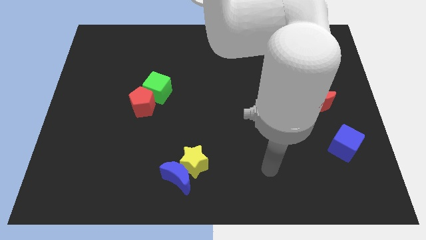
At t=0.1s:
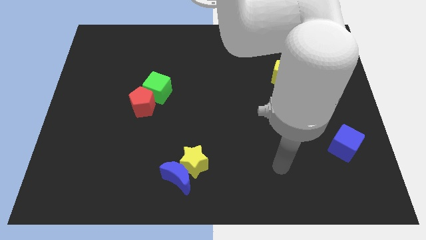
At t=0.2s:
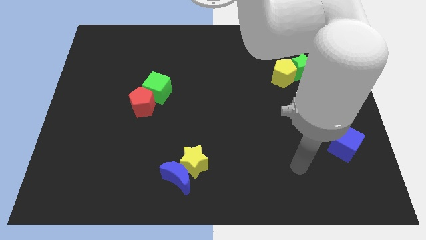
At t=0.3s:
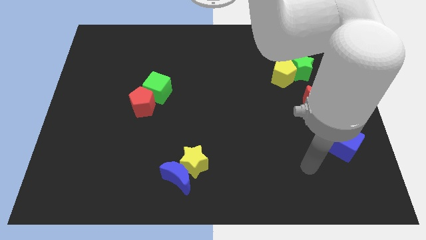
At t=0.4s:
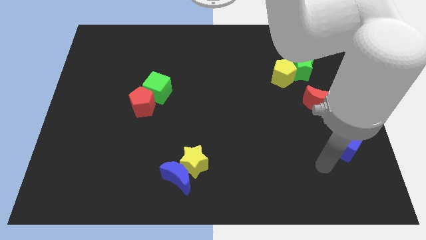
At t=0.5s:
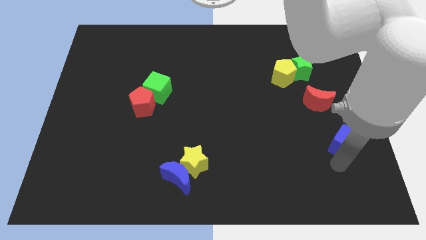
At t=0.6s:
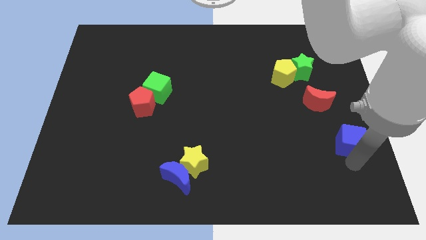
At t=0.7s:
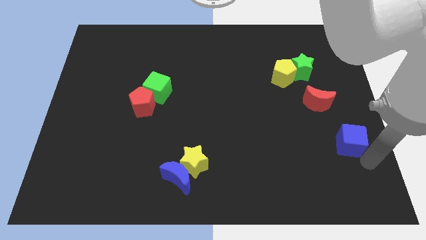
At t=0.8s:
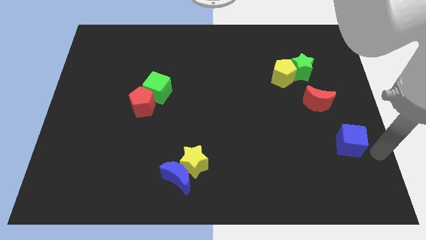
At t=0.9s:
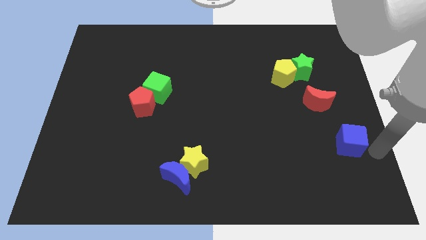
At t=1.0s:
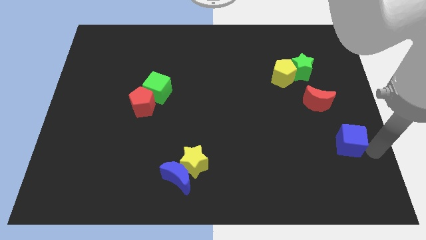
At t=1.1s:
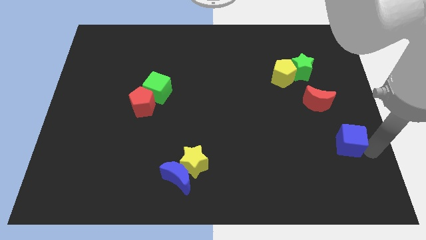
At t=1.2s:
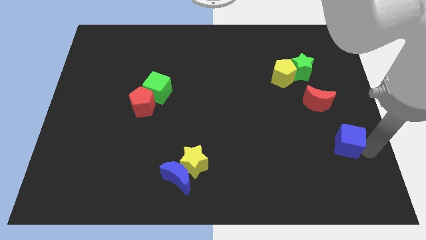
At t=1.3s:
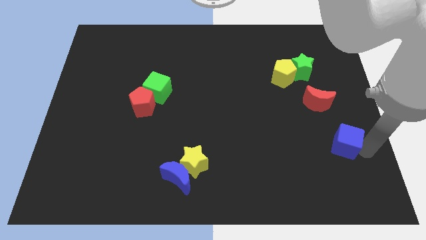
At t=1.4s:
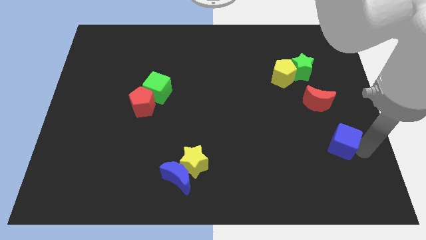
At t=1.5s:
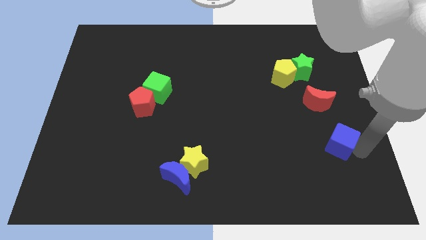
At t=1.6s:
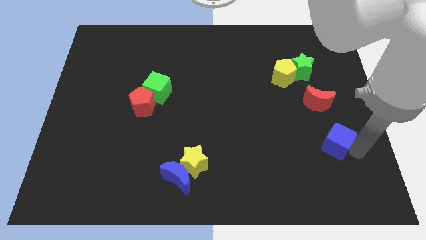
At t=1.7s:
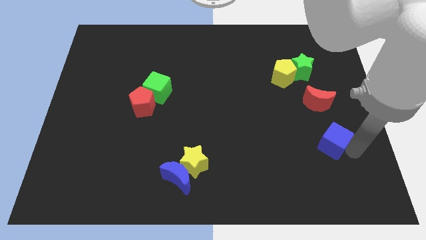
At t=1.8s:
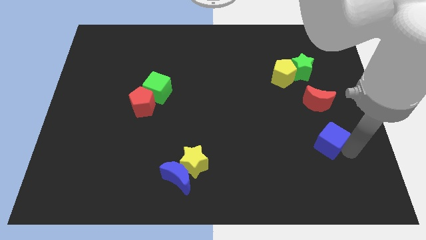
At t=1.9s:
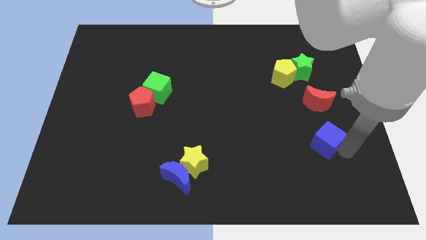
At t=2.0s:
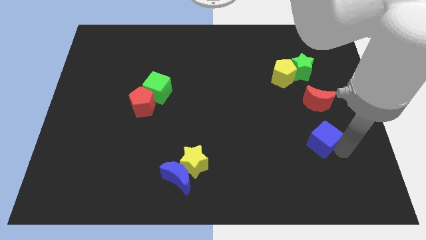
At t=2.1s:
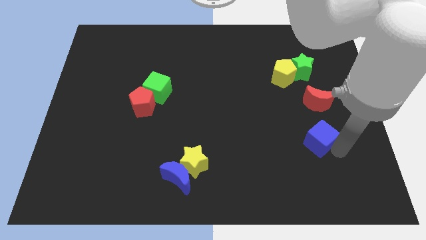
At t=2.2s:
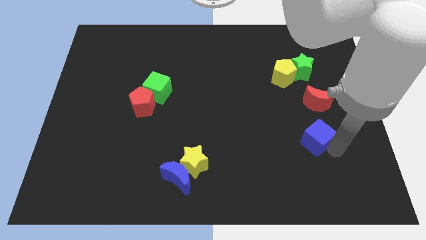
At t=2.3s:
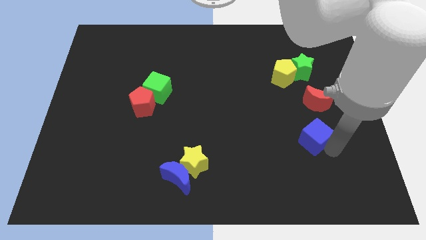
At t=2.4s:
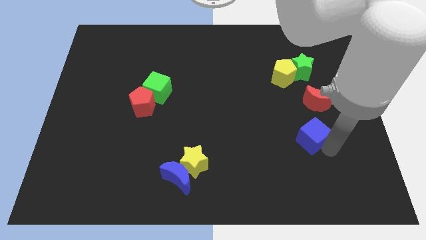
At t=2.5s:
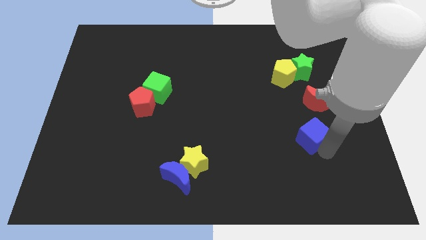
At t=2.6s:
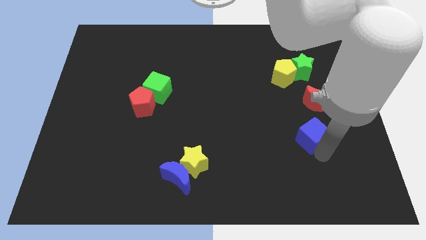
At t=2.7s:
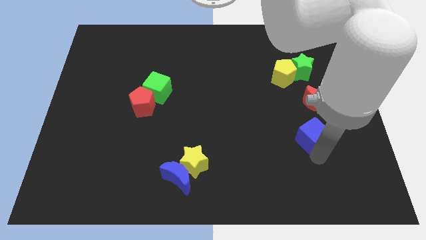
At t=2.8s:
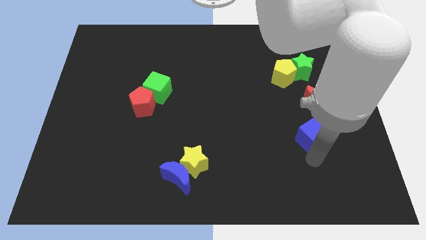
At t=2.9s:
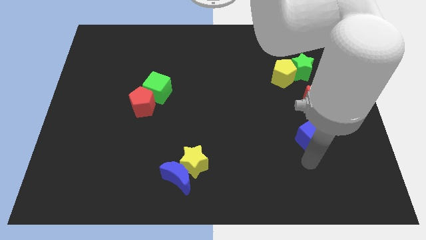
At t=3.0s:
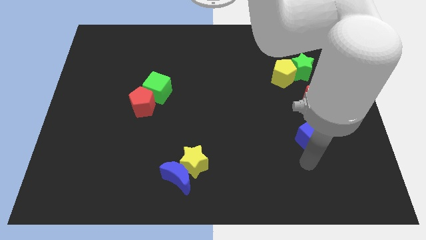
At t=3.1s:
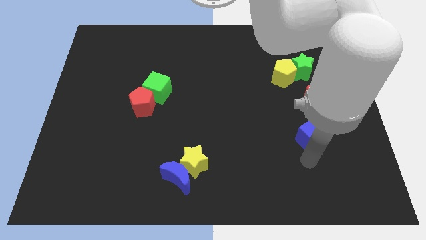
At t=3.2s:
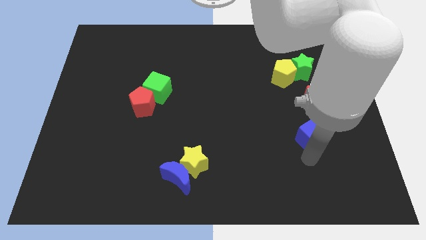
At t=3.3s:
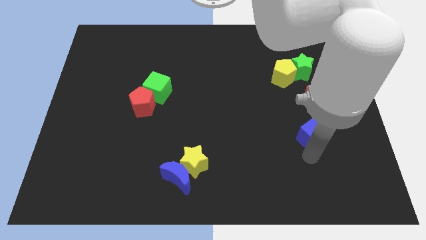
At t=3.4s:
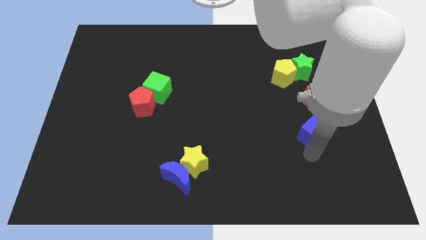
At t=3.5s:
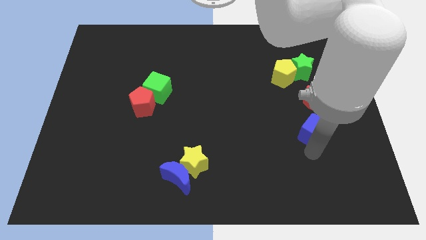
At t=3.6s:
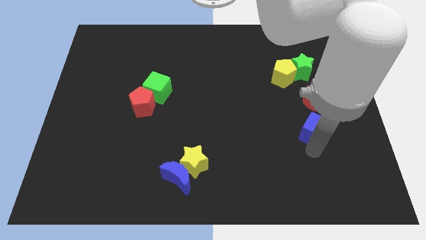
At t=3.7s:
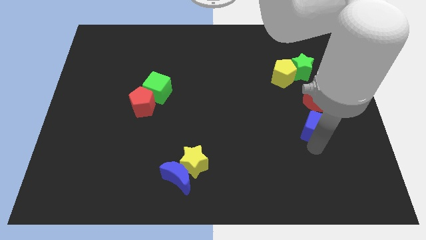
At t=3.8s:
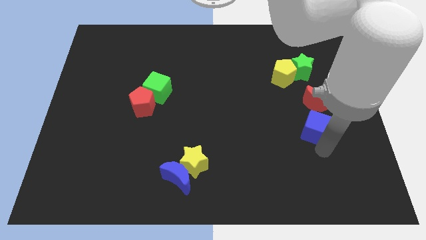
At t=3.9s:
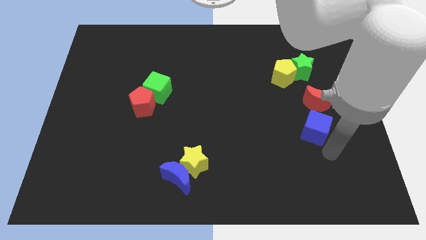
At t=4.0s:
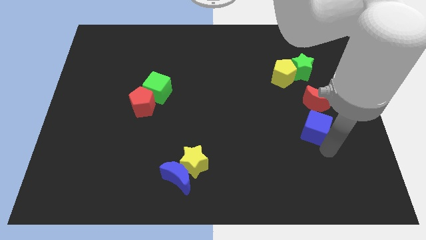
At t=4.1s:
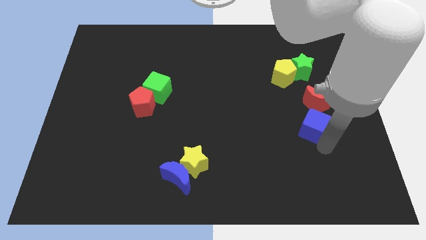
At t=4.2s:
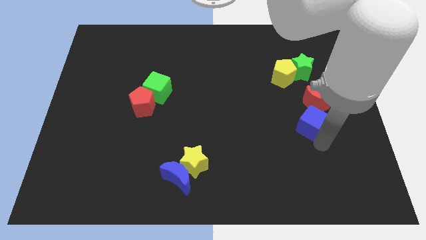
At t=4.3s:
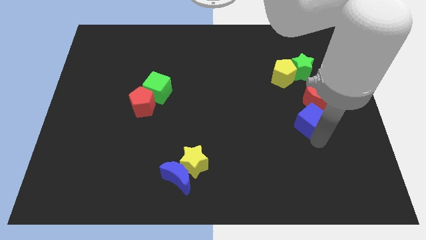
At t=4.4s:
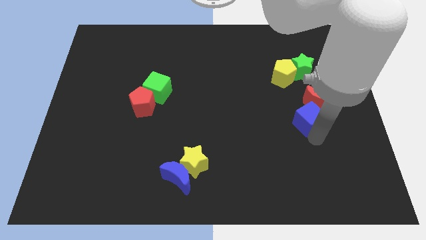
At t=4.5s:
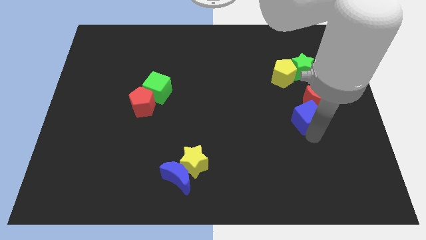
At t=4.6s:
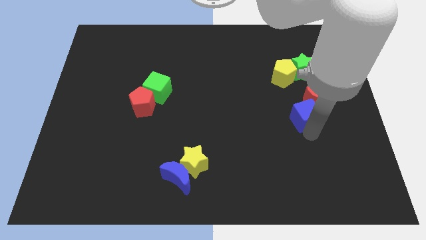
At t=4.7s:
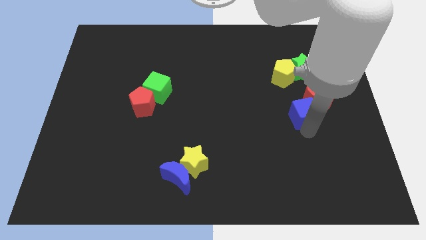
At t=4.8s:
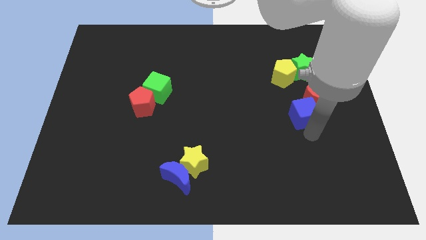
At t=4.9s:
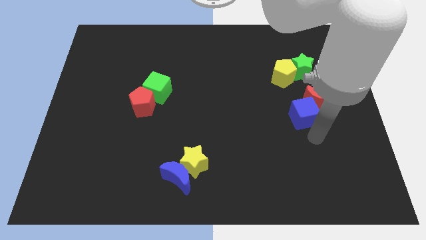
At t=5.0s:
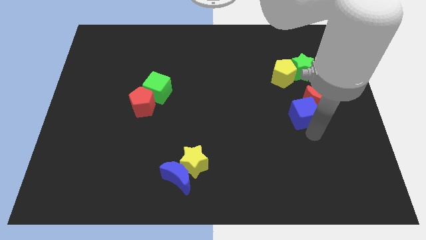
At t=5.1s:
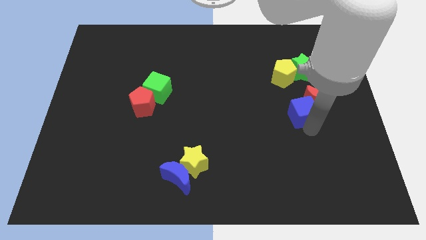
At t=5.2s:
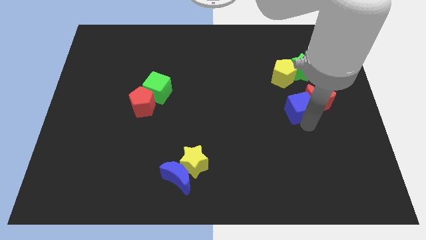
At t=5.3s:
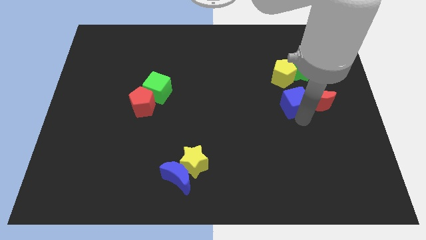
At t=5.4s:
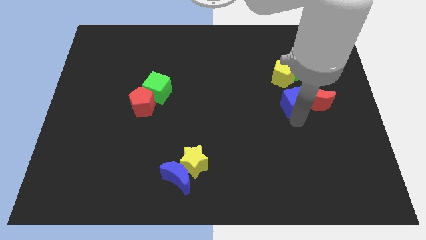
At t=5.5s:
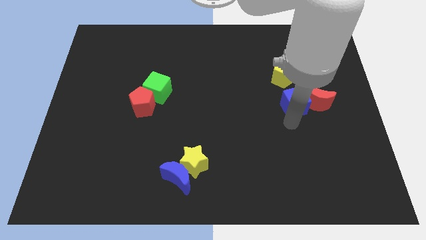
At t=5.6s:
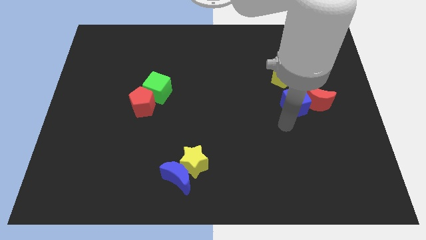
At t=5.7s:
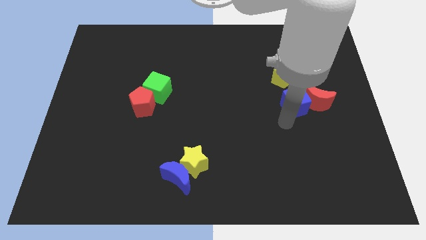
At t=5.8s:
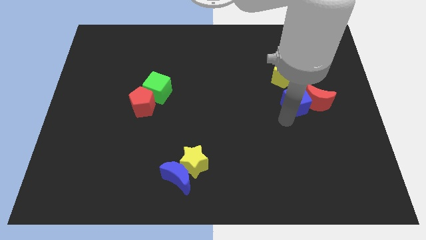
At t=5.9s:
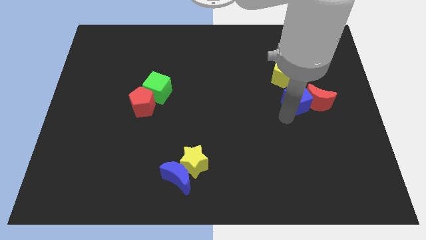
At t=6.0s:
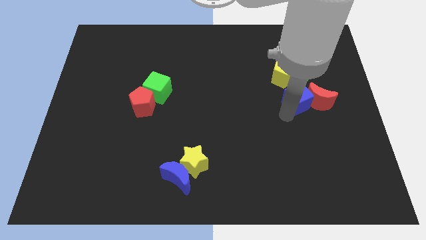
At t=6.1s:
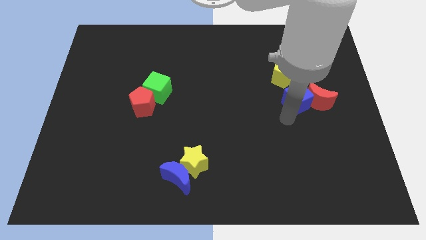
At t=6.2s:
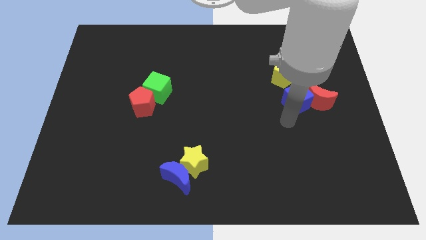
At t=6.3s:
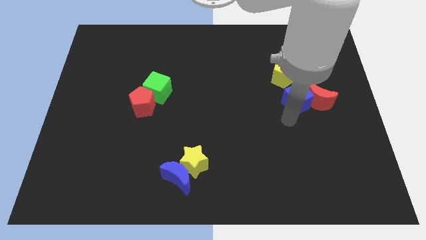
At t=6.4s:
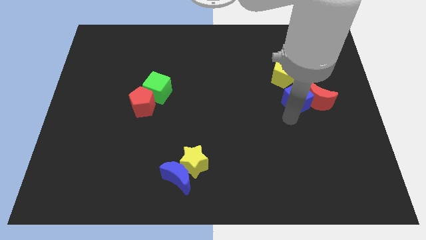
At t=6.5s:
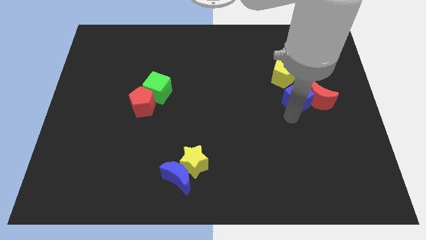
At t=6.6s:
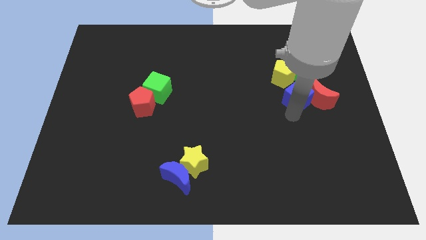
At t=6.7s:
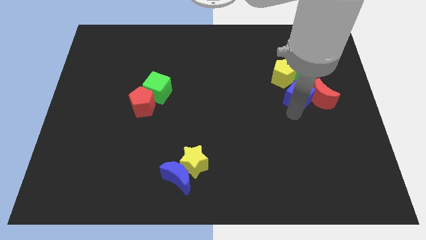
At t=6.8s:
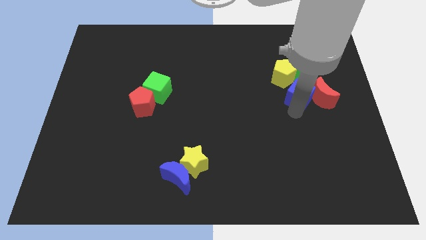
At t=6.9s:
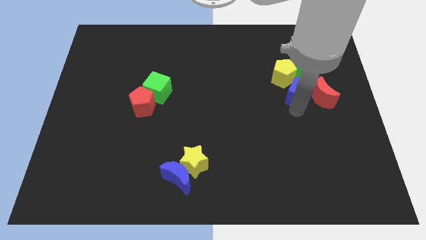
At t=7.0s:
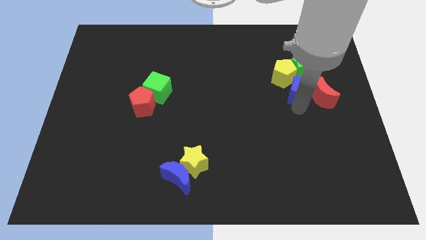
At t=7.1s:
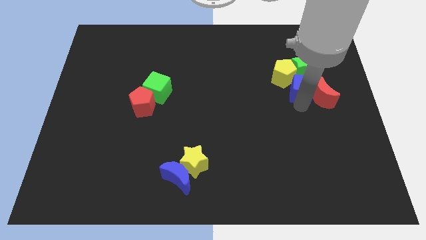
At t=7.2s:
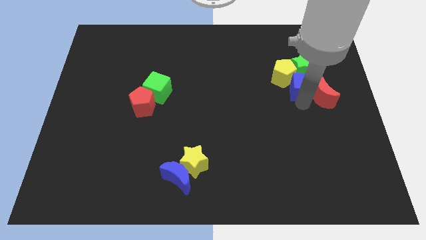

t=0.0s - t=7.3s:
put the blue cube close to the green star

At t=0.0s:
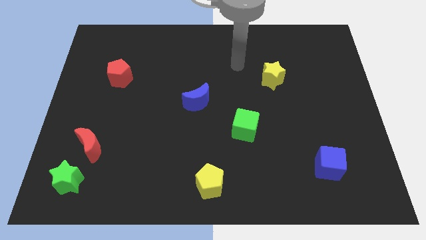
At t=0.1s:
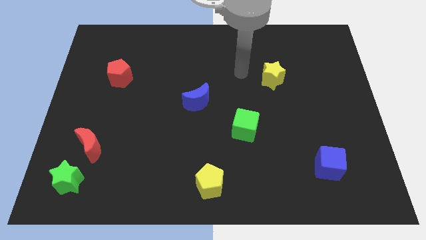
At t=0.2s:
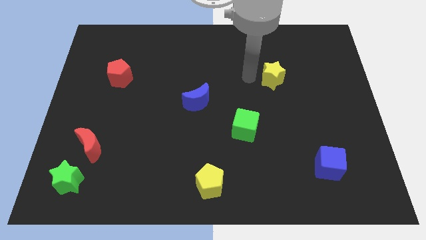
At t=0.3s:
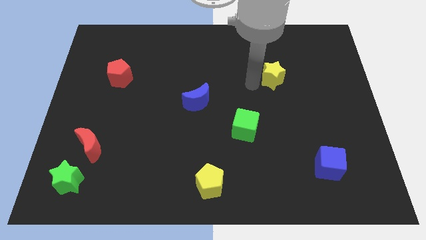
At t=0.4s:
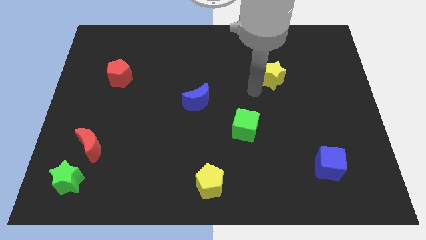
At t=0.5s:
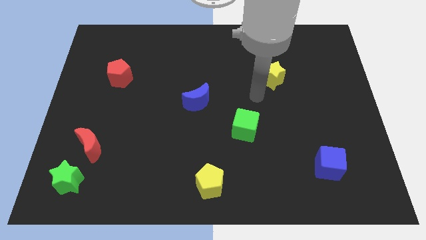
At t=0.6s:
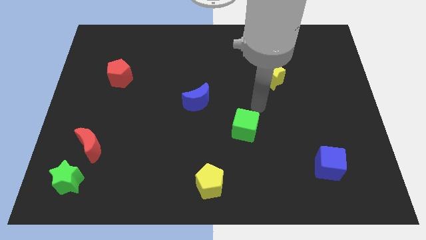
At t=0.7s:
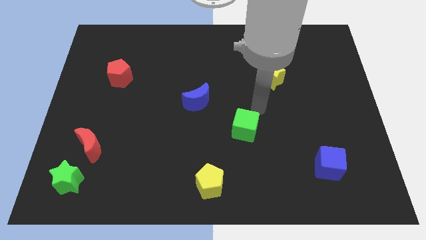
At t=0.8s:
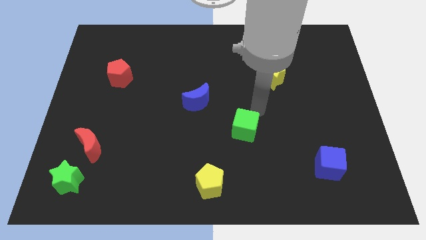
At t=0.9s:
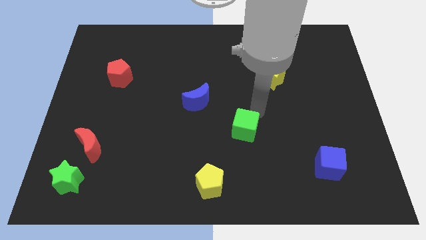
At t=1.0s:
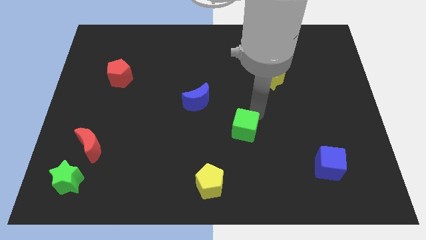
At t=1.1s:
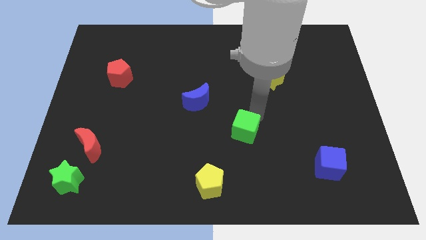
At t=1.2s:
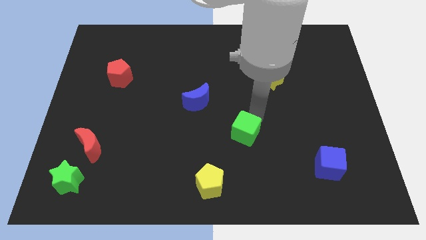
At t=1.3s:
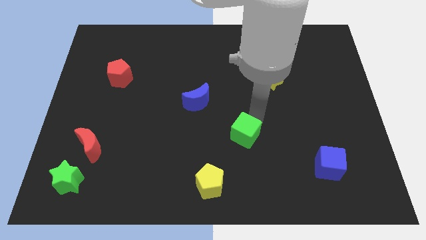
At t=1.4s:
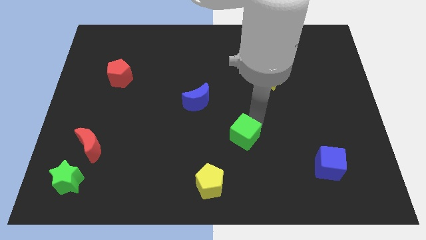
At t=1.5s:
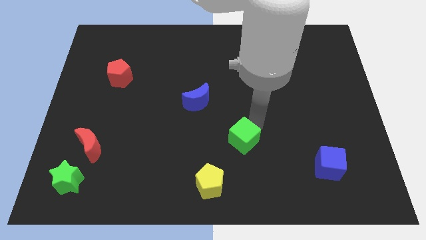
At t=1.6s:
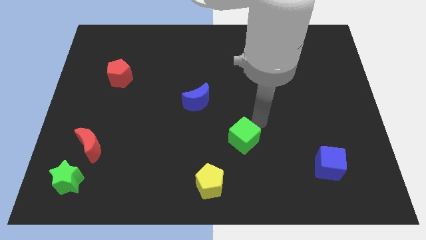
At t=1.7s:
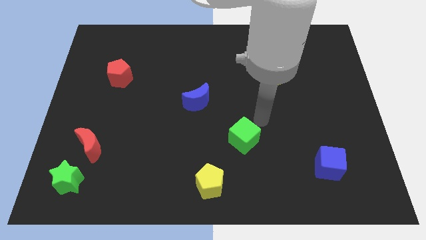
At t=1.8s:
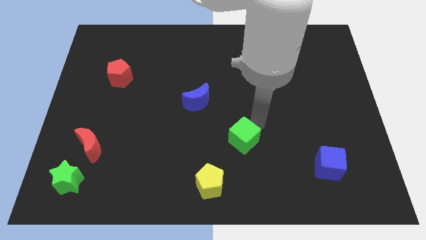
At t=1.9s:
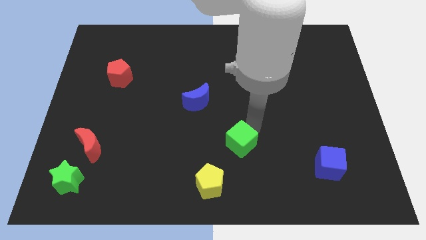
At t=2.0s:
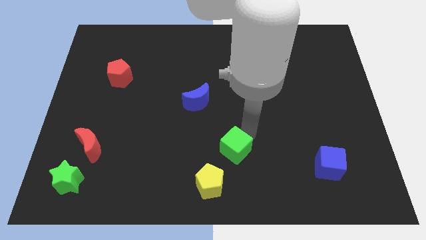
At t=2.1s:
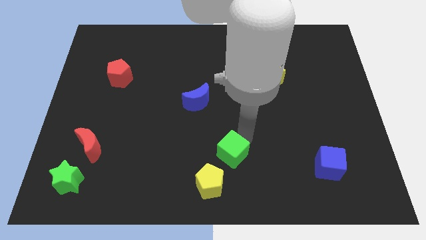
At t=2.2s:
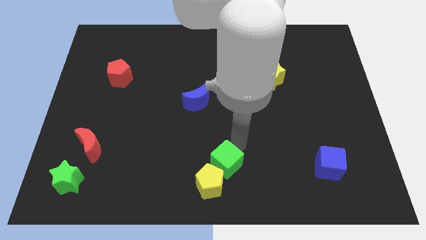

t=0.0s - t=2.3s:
slide the green cube towards the yellow pentagon
